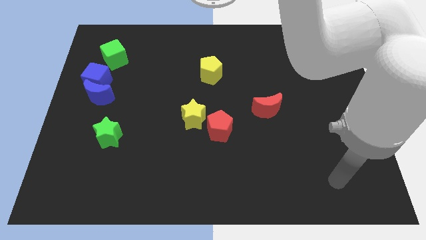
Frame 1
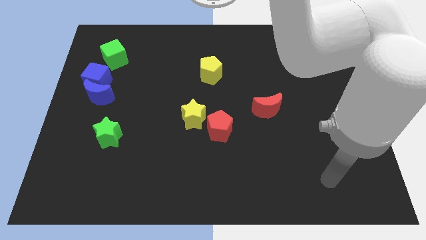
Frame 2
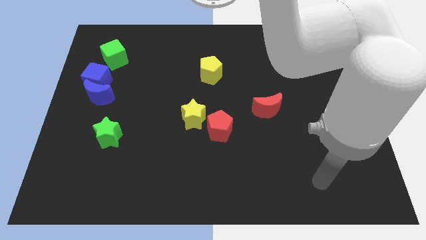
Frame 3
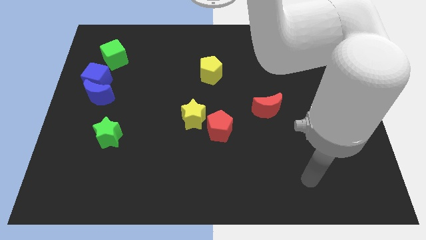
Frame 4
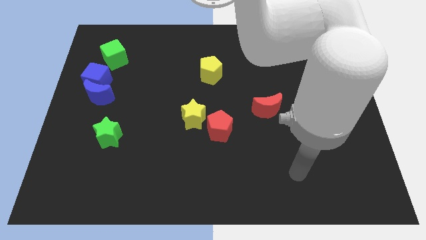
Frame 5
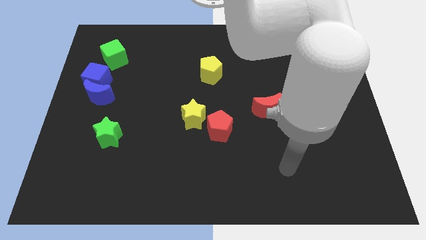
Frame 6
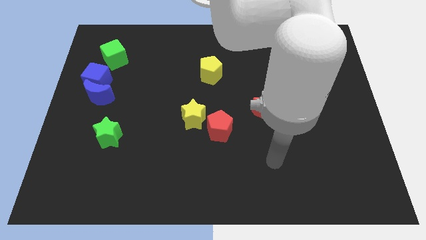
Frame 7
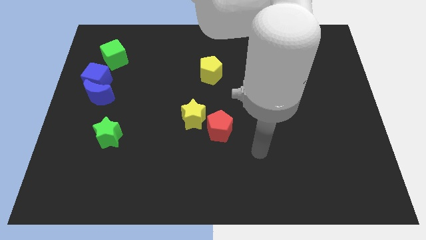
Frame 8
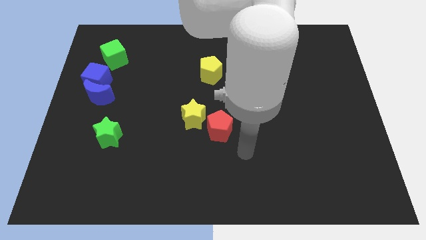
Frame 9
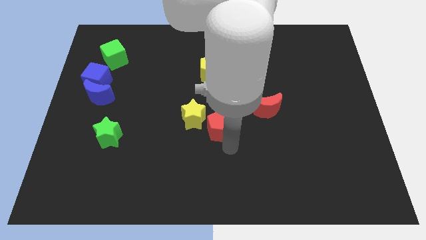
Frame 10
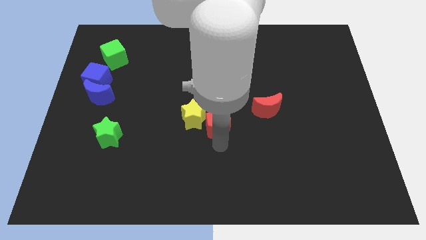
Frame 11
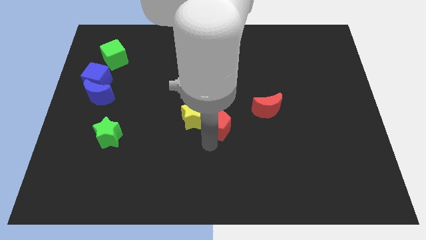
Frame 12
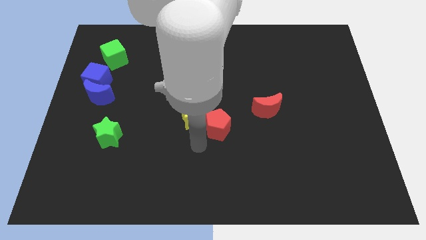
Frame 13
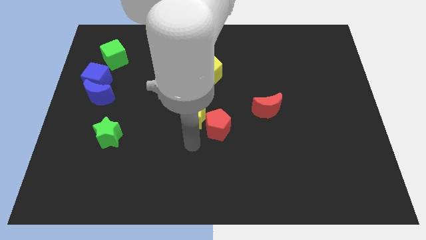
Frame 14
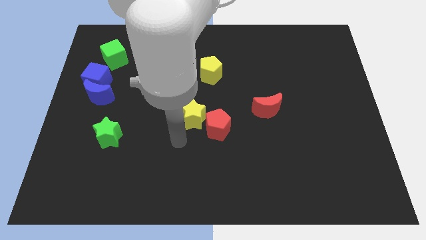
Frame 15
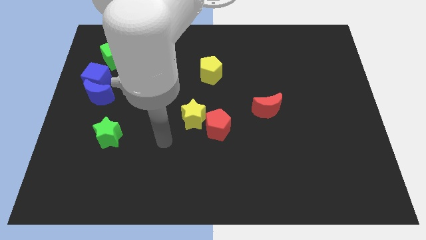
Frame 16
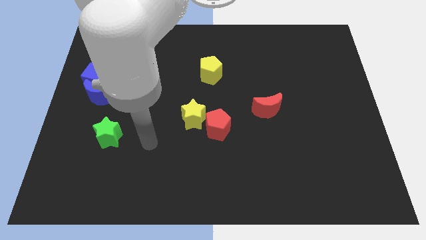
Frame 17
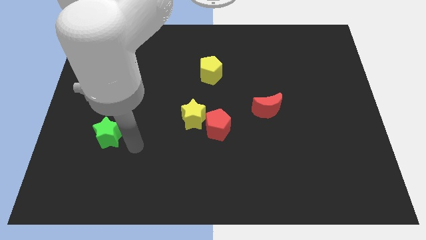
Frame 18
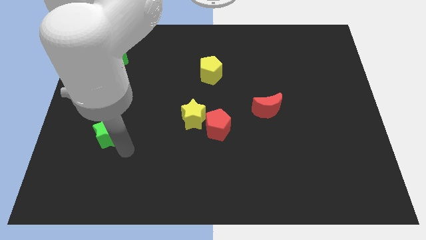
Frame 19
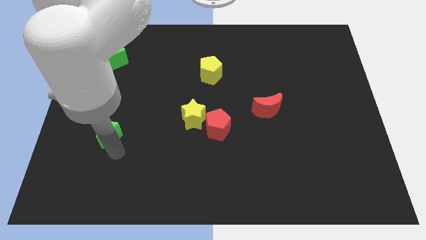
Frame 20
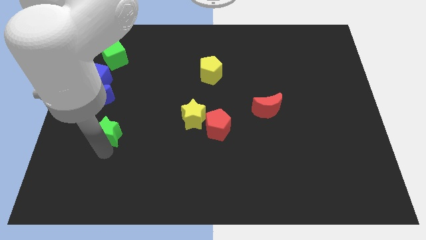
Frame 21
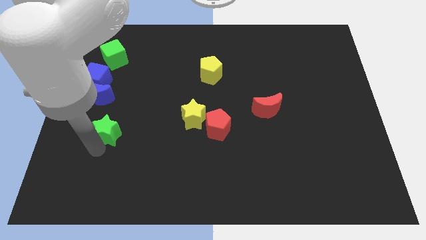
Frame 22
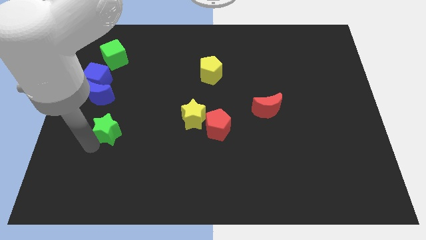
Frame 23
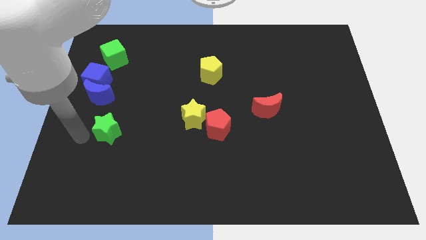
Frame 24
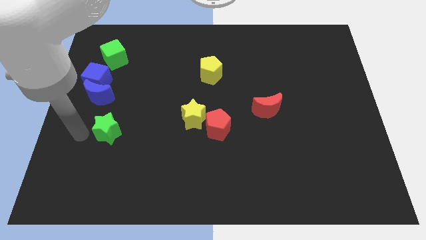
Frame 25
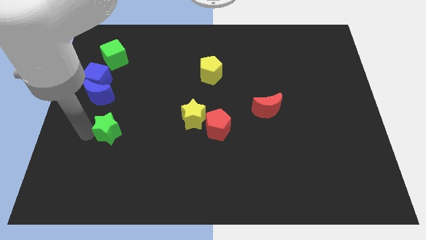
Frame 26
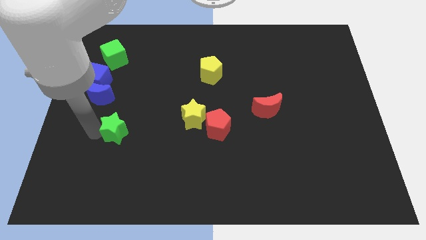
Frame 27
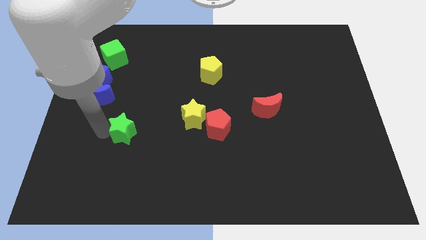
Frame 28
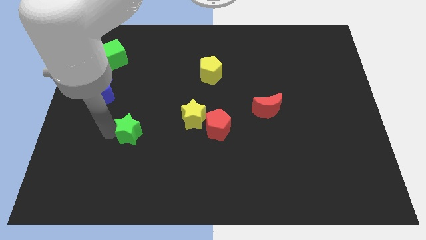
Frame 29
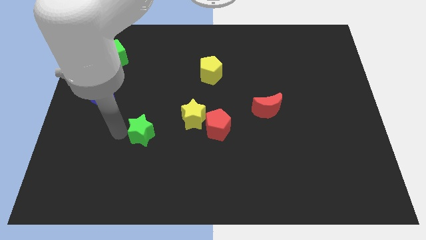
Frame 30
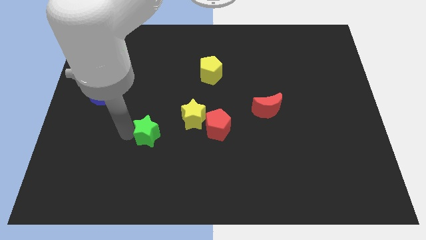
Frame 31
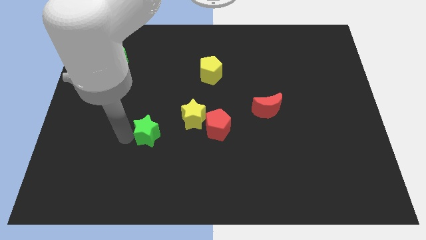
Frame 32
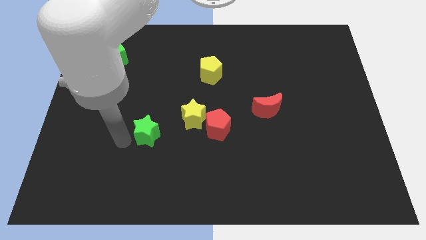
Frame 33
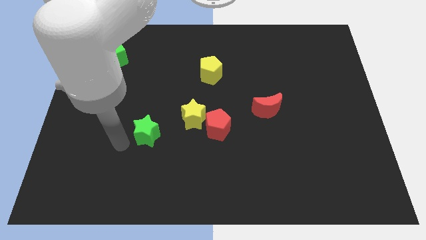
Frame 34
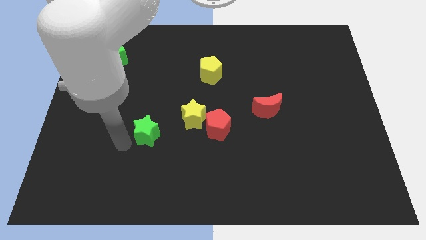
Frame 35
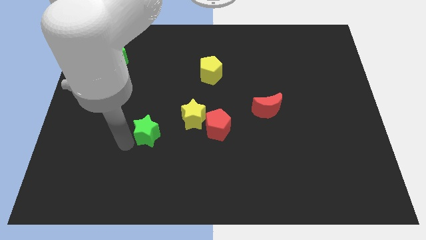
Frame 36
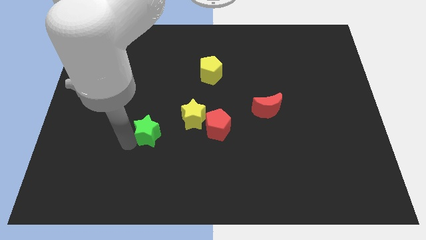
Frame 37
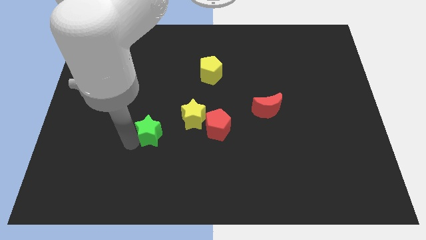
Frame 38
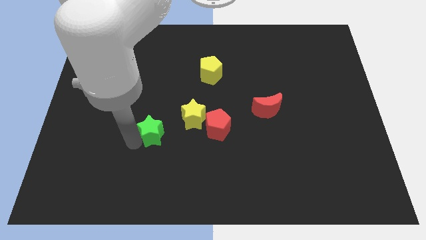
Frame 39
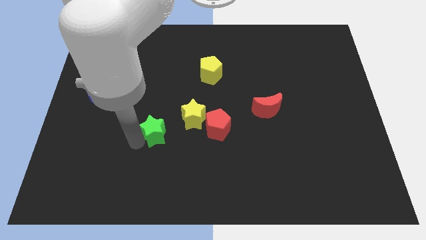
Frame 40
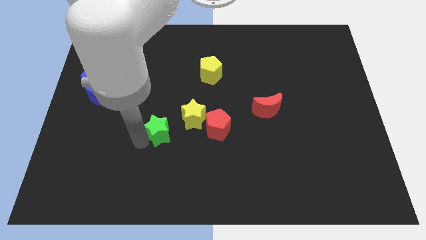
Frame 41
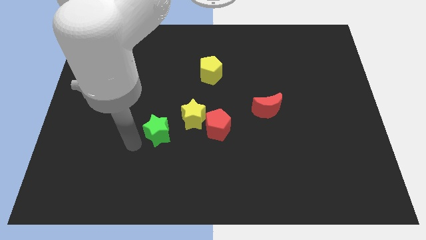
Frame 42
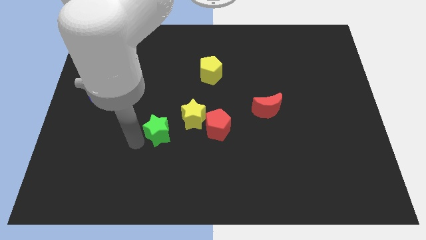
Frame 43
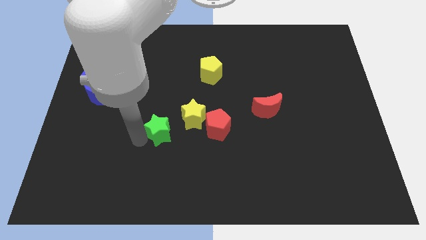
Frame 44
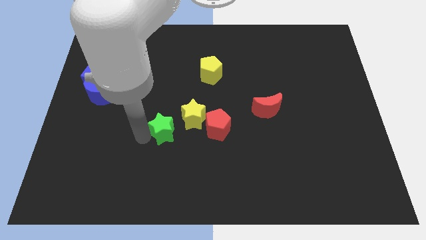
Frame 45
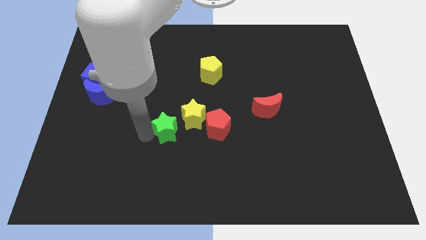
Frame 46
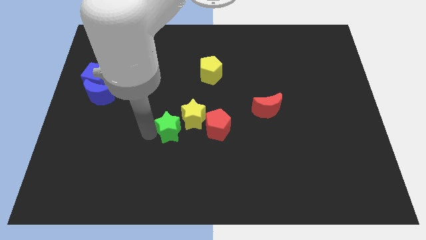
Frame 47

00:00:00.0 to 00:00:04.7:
put the green star towards the yellow star

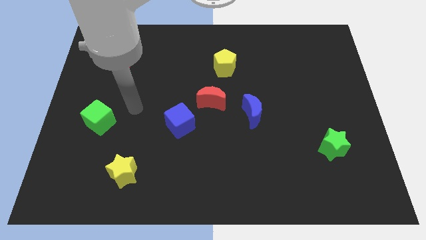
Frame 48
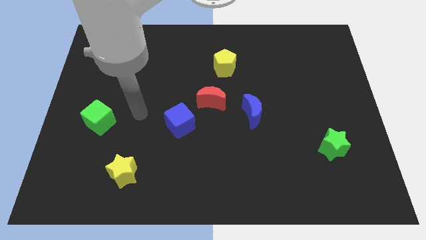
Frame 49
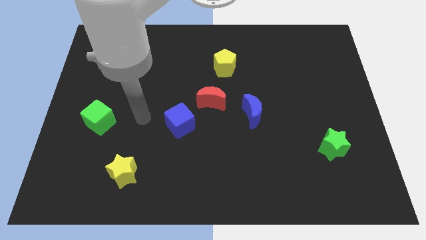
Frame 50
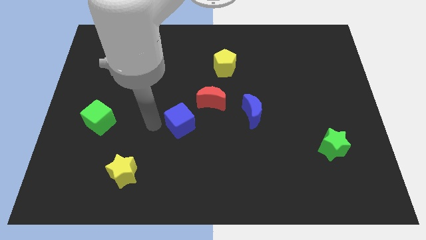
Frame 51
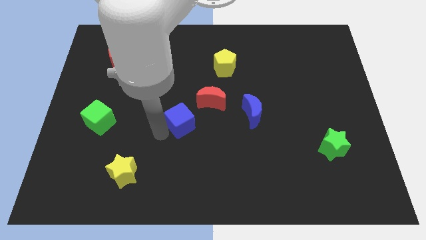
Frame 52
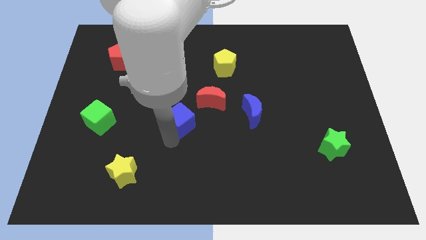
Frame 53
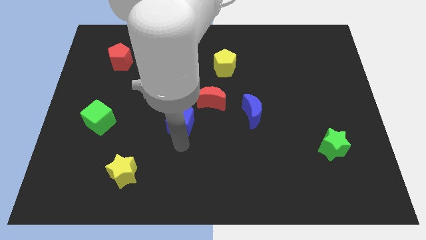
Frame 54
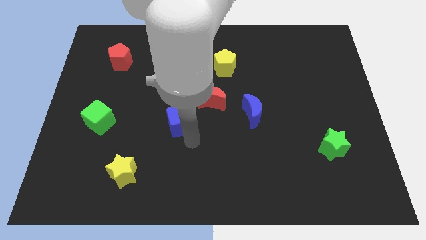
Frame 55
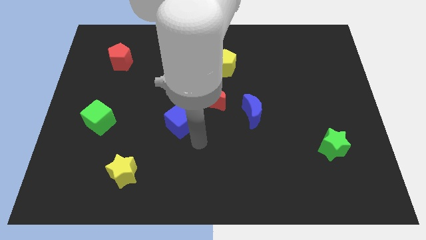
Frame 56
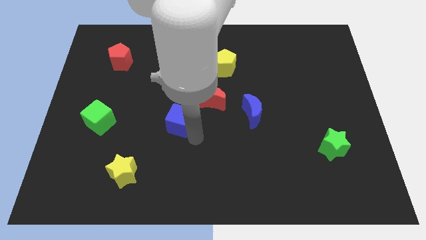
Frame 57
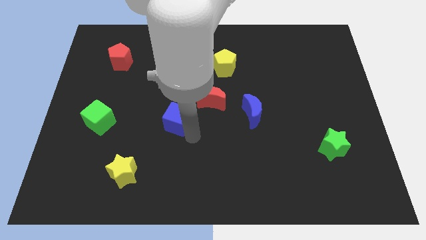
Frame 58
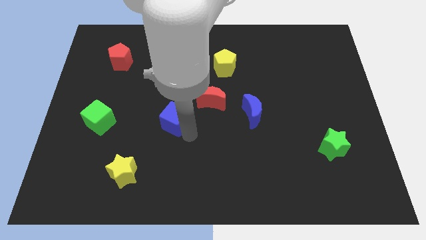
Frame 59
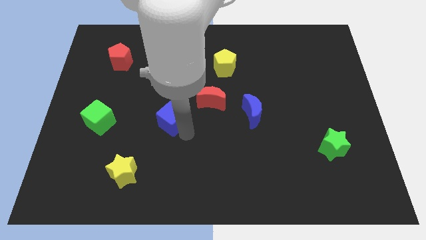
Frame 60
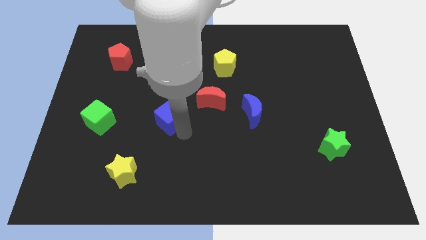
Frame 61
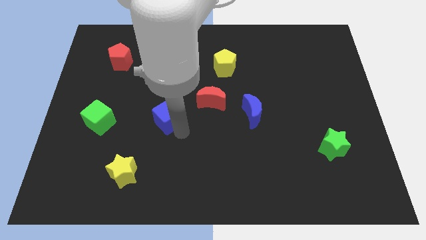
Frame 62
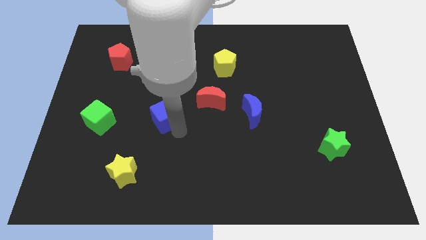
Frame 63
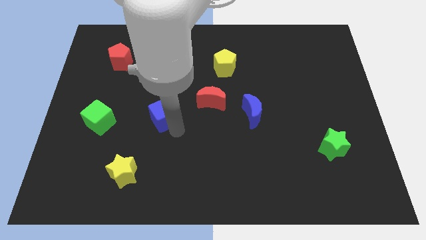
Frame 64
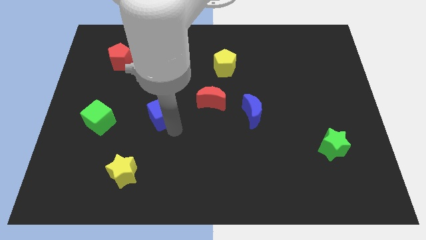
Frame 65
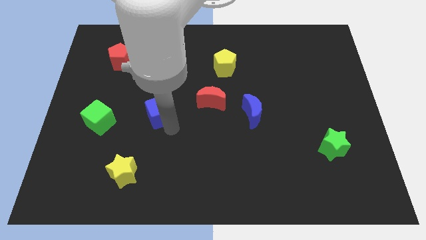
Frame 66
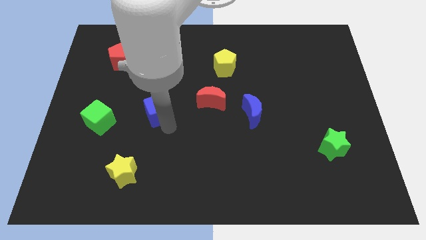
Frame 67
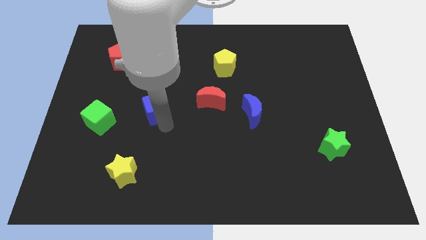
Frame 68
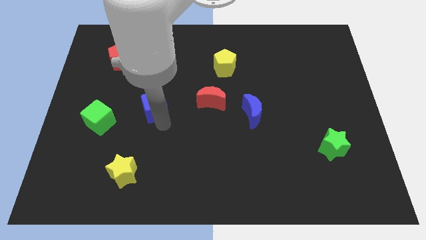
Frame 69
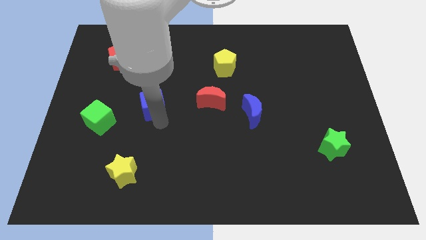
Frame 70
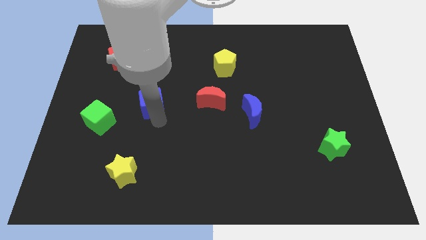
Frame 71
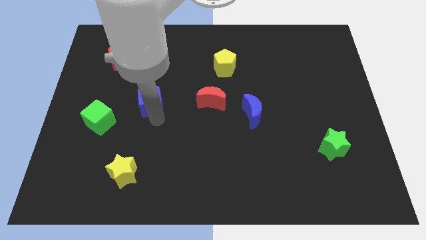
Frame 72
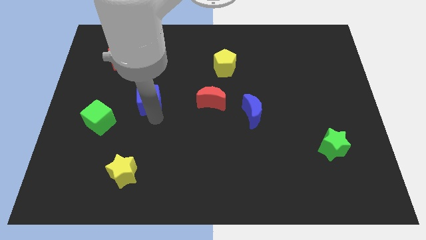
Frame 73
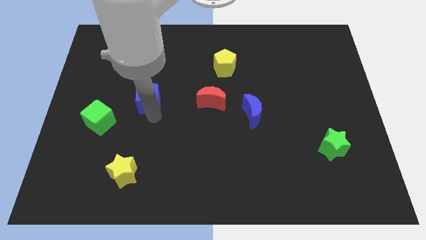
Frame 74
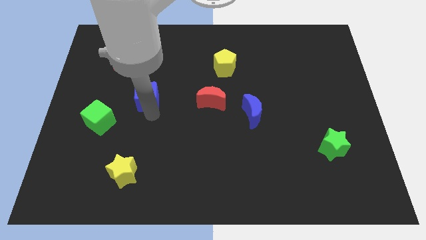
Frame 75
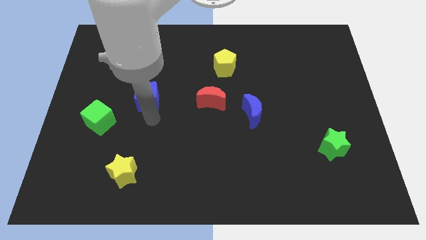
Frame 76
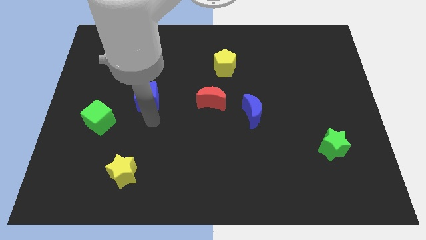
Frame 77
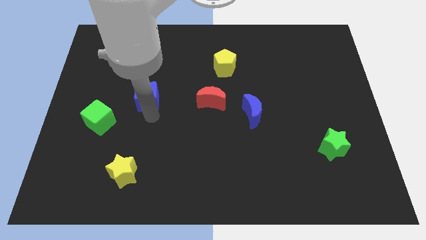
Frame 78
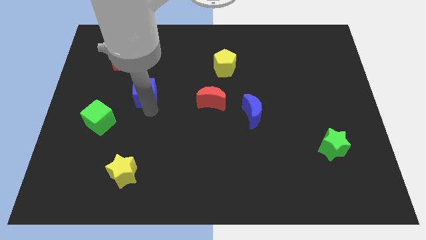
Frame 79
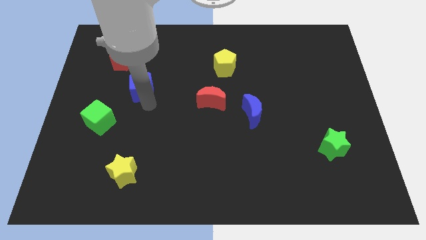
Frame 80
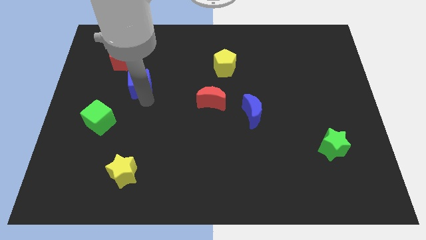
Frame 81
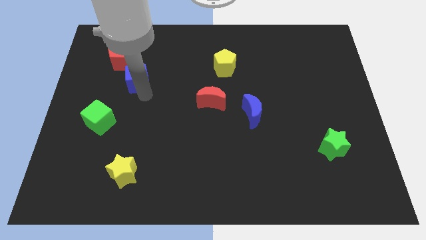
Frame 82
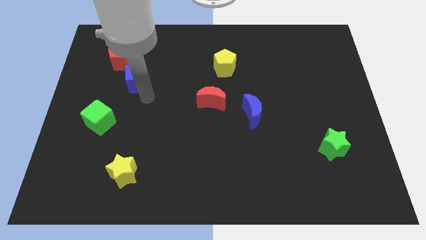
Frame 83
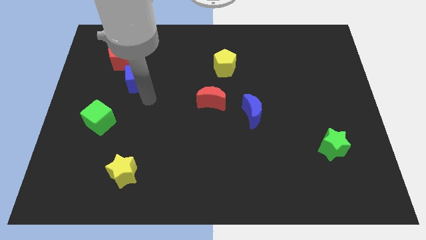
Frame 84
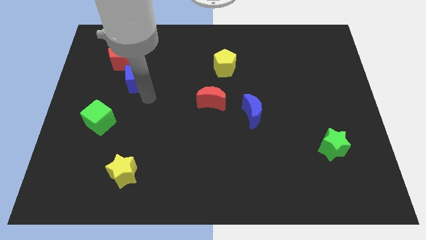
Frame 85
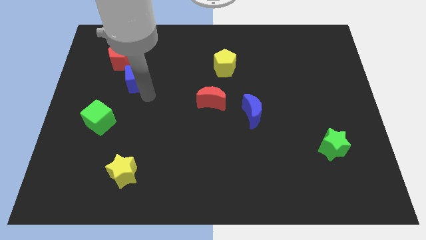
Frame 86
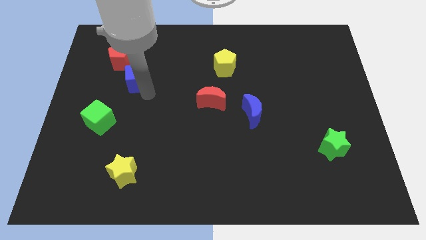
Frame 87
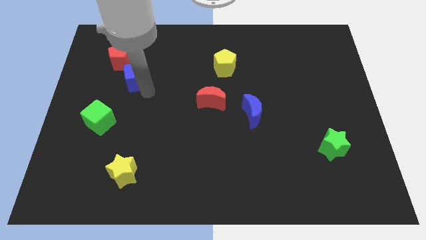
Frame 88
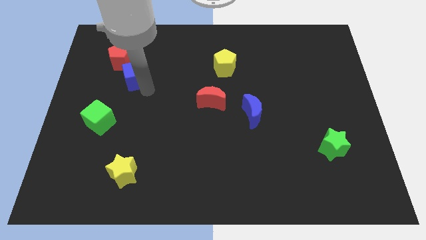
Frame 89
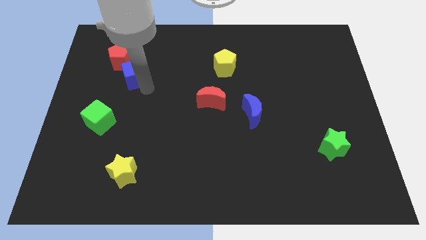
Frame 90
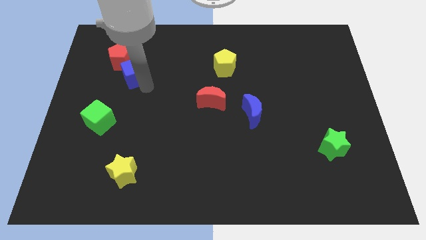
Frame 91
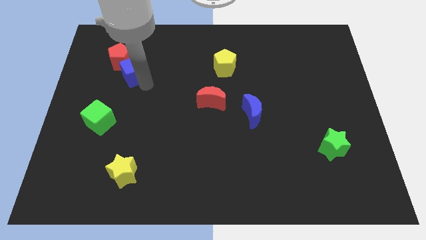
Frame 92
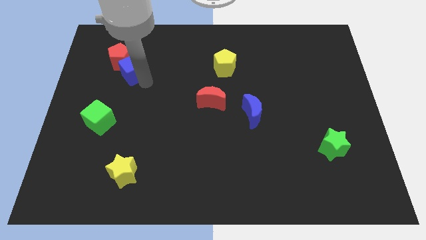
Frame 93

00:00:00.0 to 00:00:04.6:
slide the blue cube close to the red pentagon
